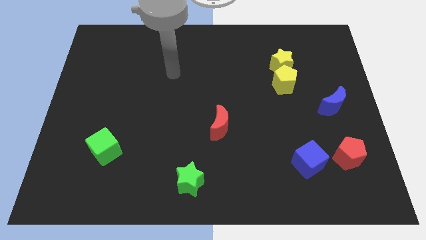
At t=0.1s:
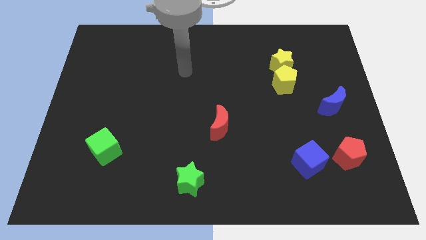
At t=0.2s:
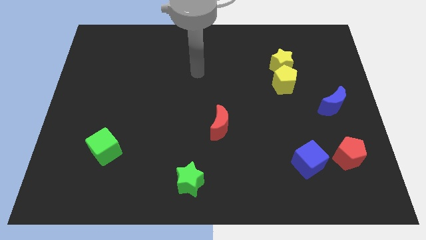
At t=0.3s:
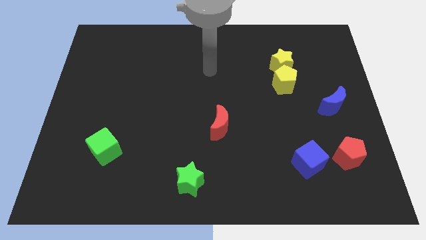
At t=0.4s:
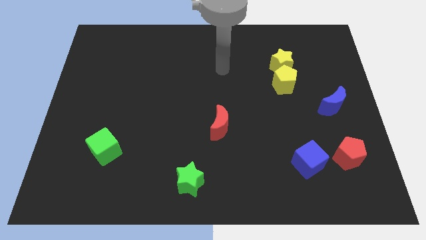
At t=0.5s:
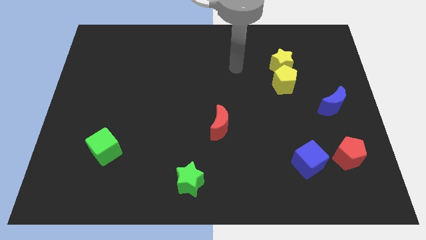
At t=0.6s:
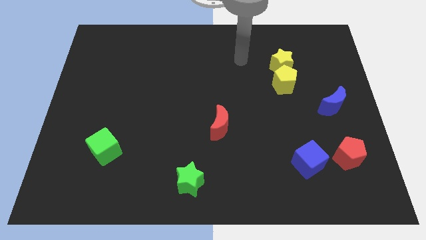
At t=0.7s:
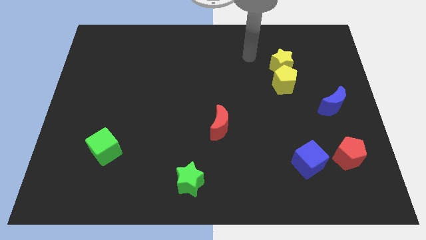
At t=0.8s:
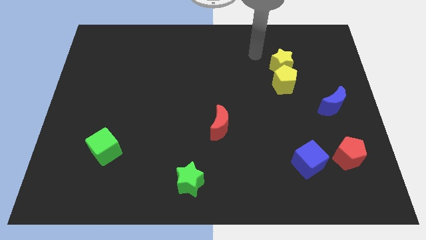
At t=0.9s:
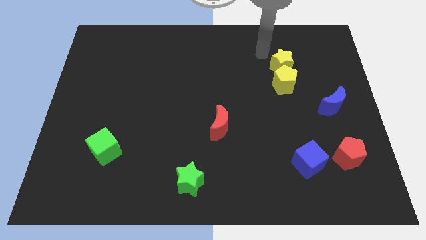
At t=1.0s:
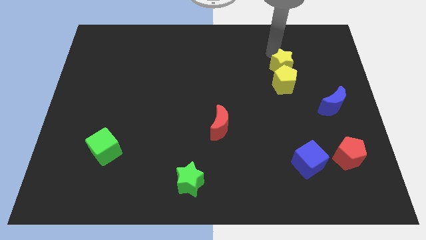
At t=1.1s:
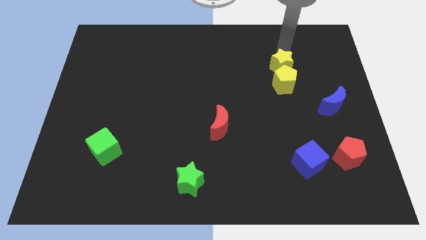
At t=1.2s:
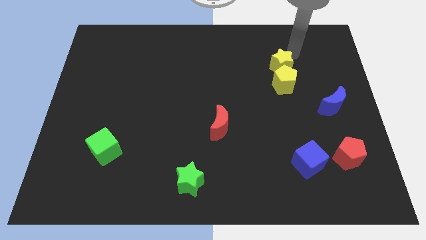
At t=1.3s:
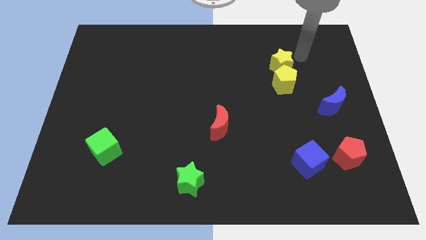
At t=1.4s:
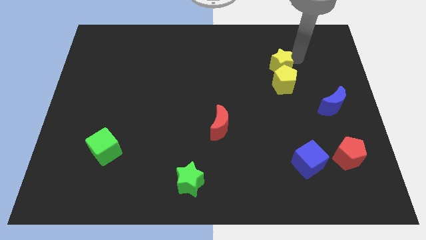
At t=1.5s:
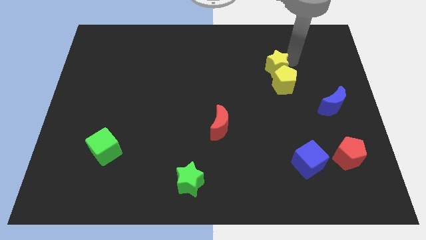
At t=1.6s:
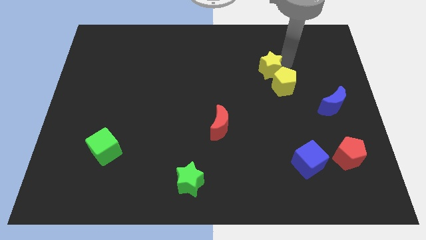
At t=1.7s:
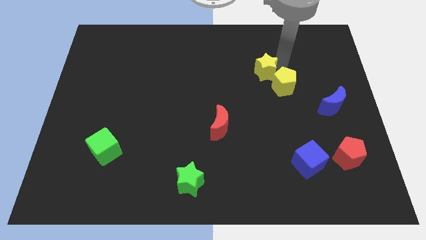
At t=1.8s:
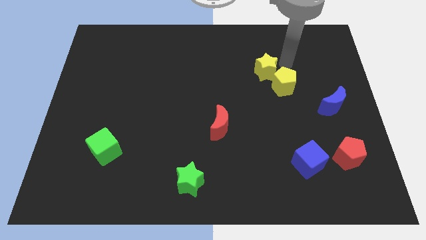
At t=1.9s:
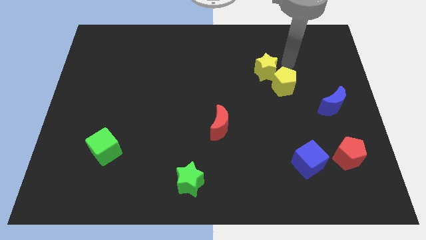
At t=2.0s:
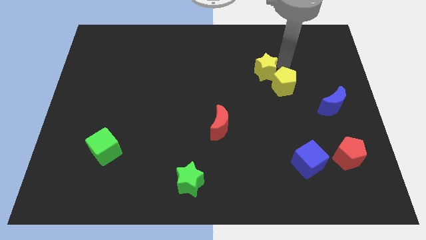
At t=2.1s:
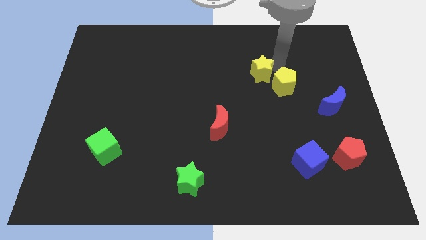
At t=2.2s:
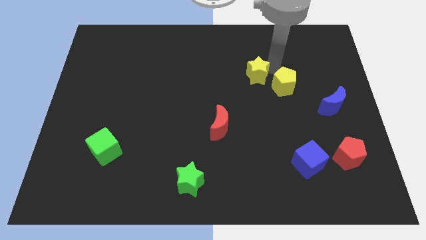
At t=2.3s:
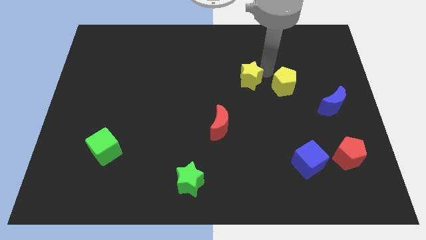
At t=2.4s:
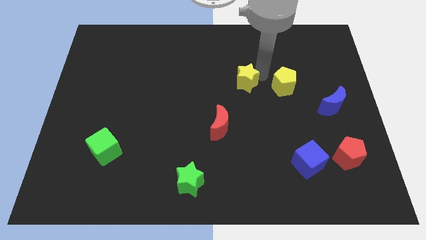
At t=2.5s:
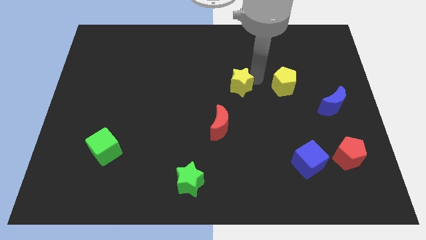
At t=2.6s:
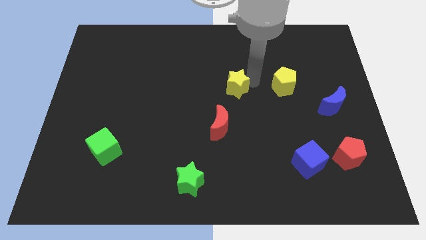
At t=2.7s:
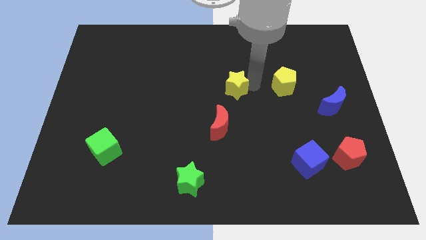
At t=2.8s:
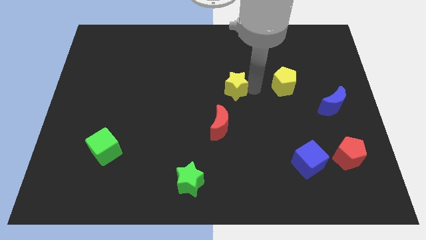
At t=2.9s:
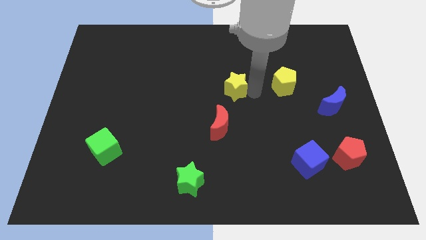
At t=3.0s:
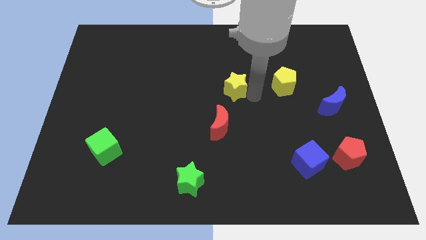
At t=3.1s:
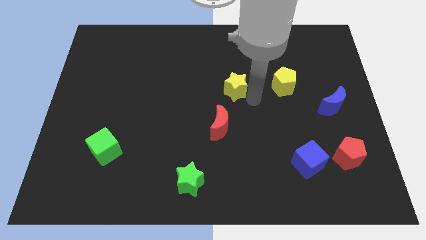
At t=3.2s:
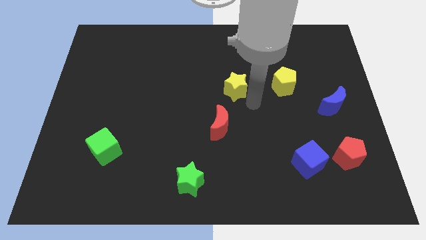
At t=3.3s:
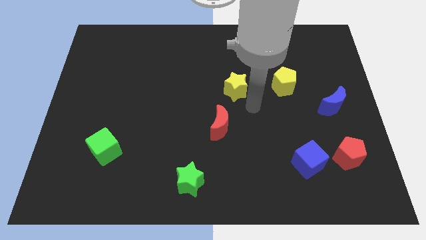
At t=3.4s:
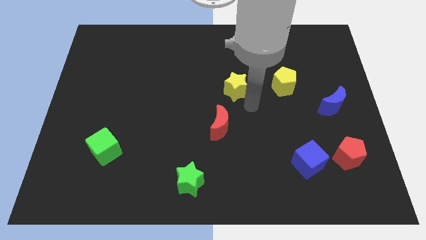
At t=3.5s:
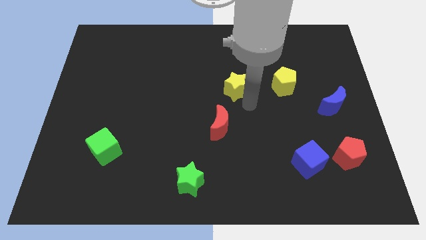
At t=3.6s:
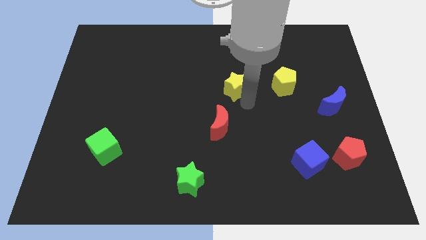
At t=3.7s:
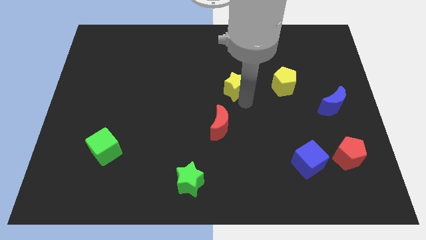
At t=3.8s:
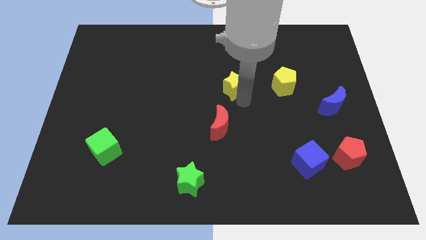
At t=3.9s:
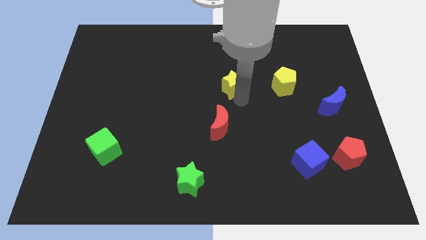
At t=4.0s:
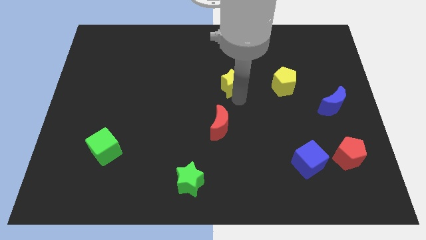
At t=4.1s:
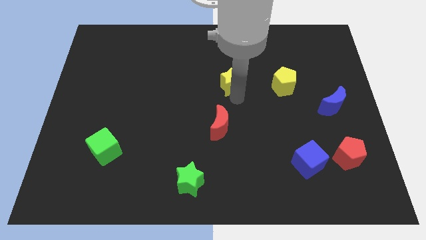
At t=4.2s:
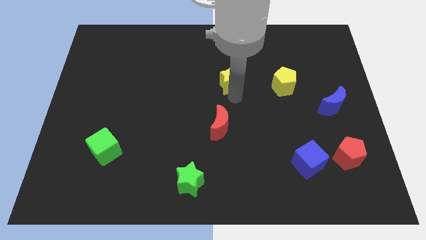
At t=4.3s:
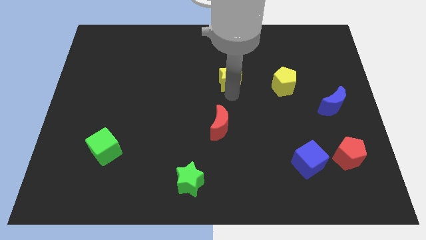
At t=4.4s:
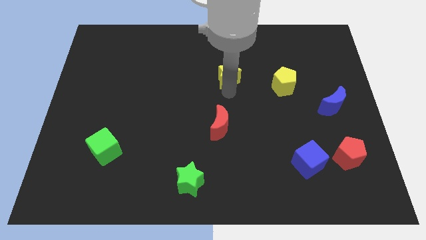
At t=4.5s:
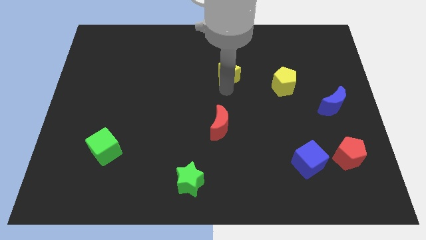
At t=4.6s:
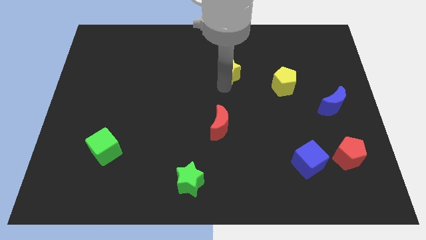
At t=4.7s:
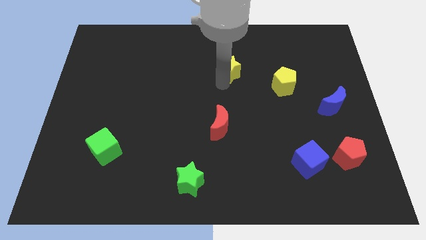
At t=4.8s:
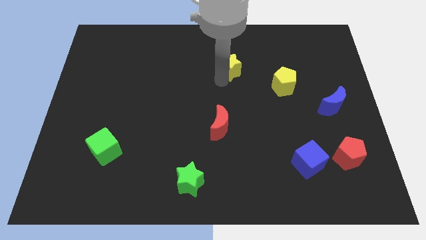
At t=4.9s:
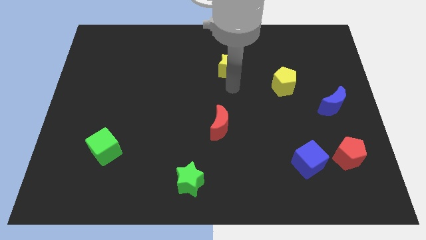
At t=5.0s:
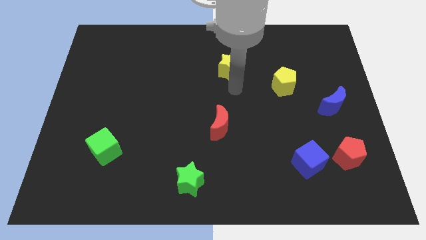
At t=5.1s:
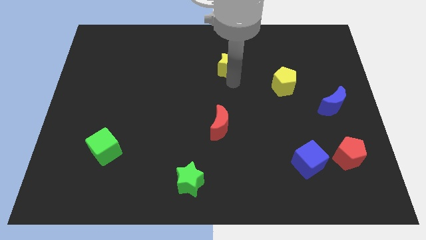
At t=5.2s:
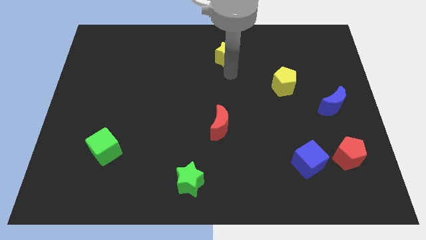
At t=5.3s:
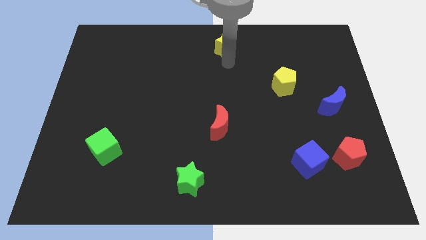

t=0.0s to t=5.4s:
move the yellow star to the towards your base

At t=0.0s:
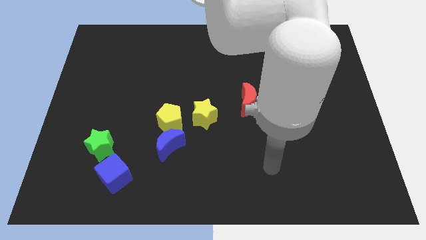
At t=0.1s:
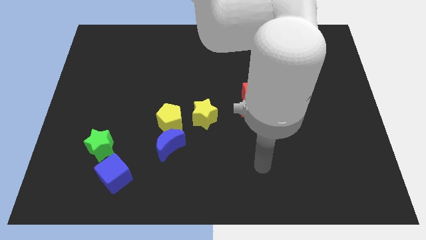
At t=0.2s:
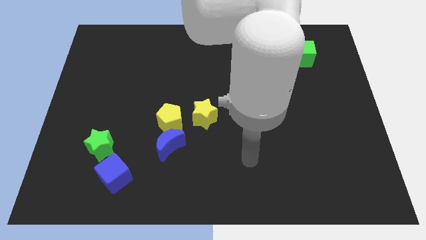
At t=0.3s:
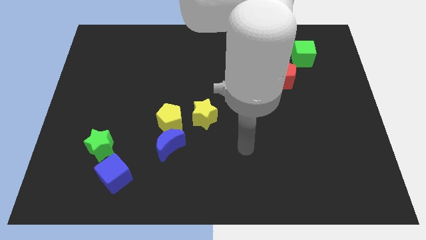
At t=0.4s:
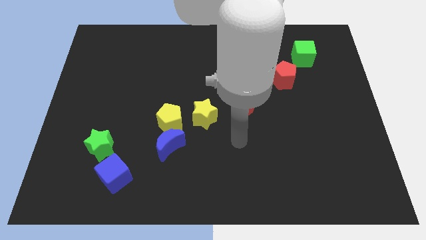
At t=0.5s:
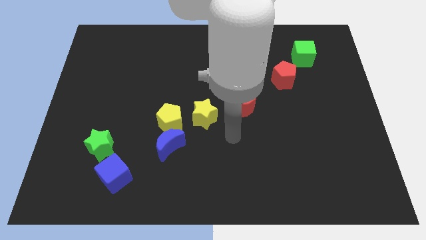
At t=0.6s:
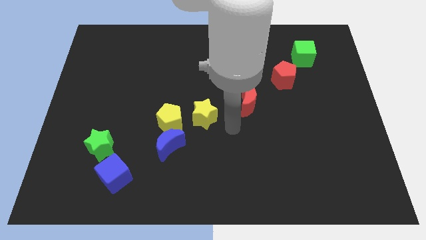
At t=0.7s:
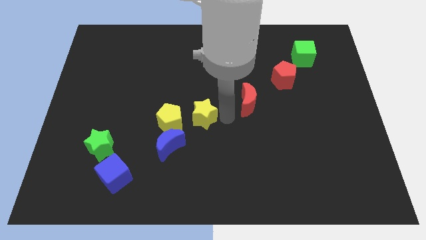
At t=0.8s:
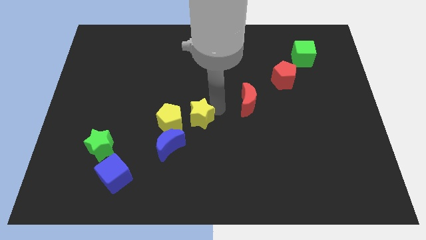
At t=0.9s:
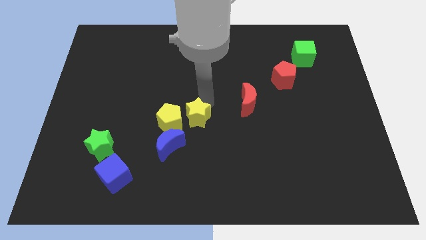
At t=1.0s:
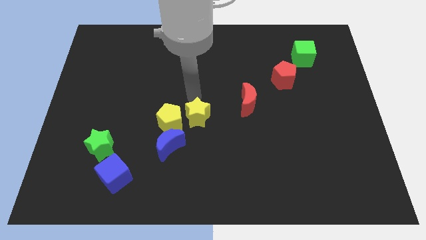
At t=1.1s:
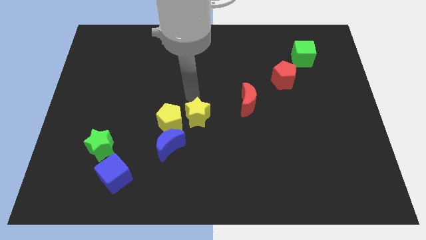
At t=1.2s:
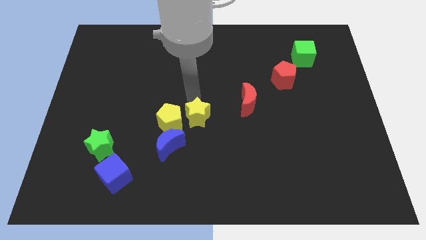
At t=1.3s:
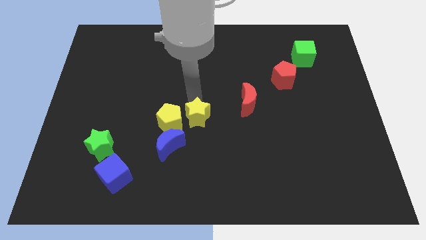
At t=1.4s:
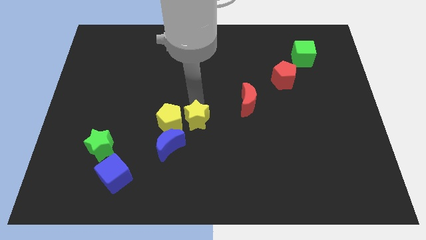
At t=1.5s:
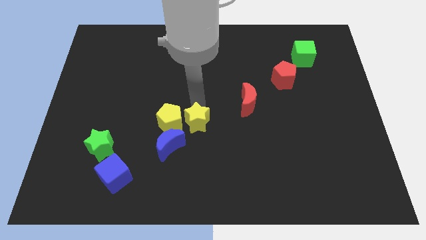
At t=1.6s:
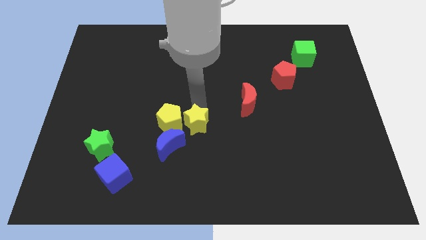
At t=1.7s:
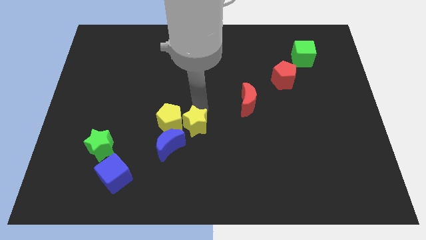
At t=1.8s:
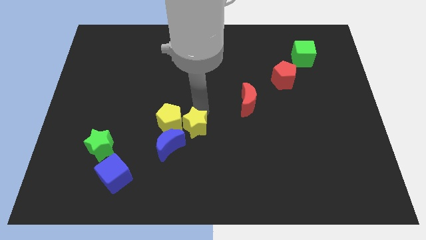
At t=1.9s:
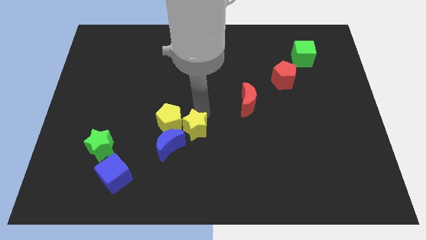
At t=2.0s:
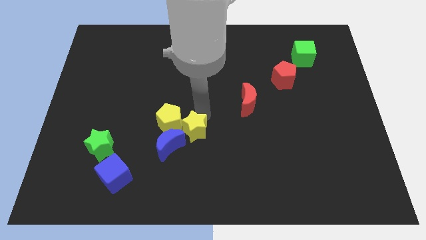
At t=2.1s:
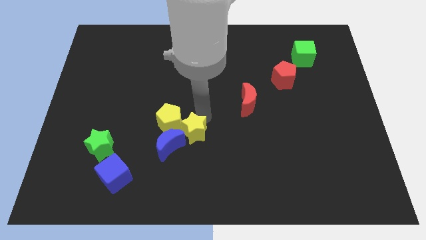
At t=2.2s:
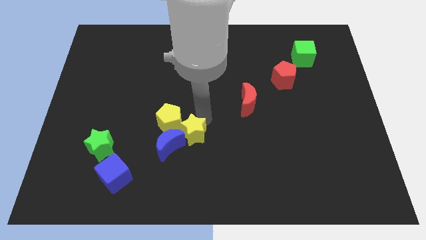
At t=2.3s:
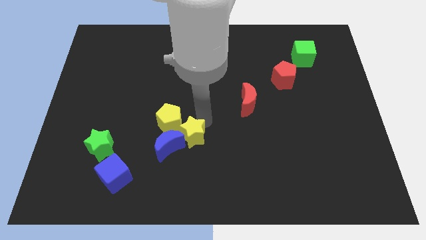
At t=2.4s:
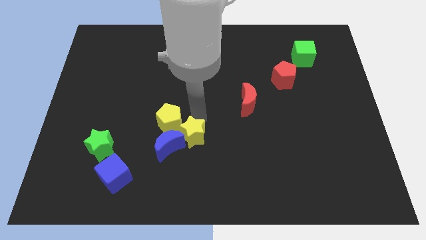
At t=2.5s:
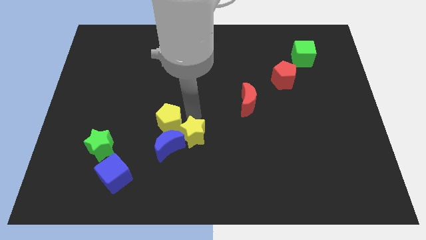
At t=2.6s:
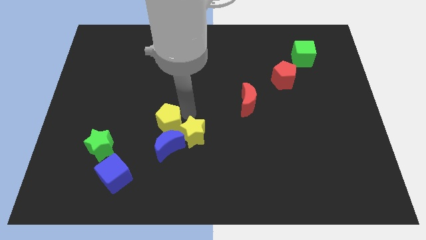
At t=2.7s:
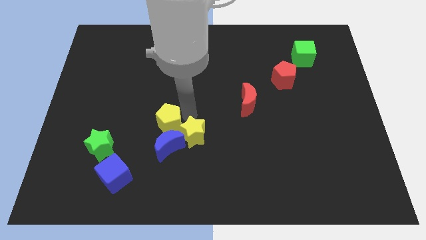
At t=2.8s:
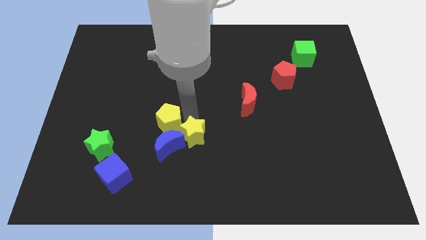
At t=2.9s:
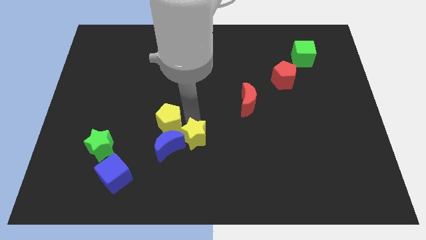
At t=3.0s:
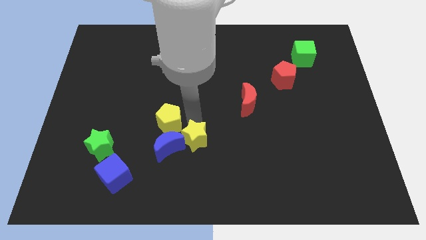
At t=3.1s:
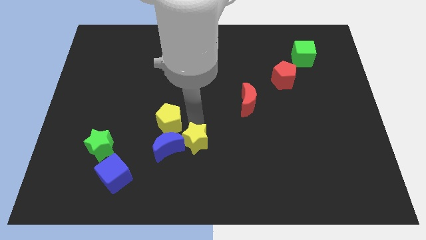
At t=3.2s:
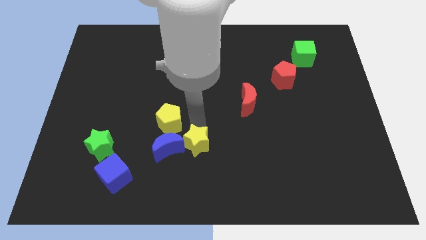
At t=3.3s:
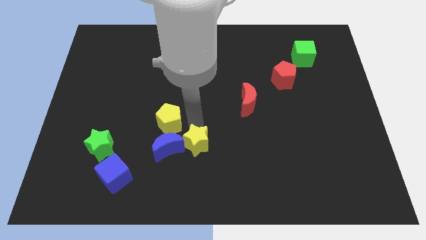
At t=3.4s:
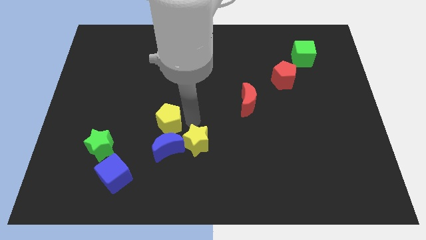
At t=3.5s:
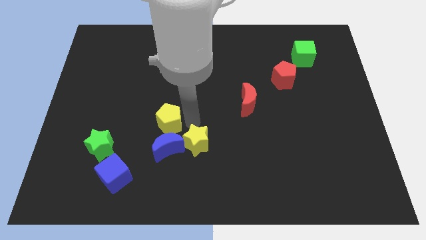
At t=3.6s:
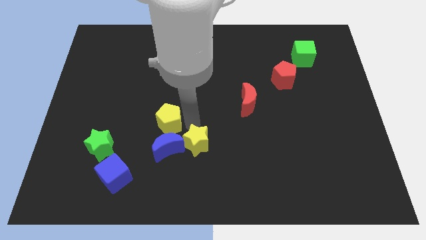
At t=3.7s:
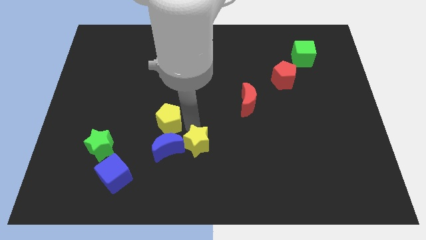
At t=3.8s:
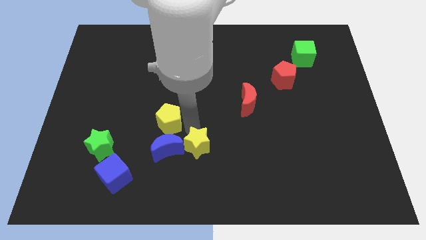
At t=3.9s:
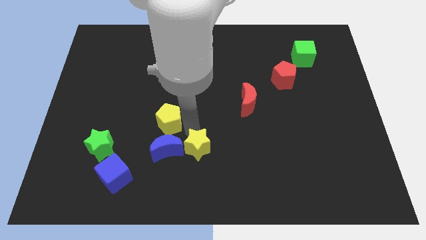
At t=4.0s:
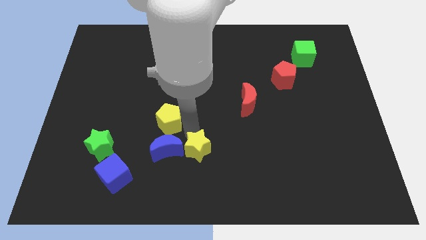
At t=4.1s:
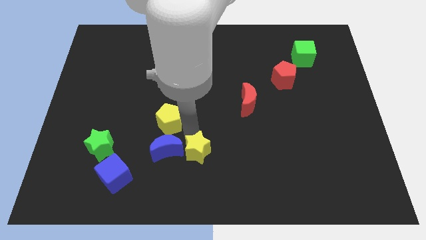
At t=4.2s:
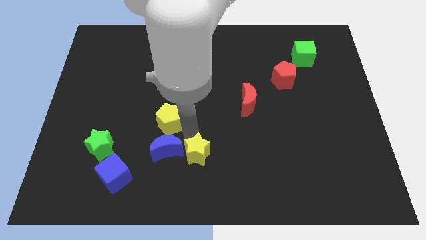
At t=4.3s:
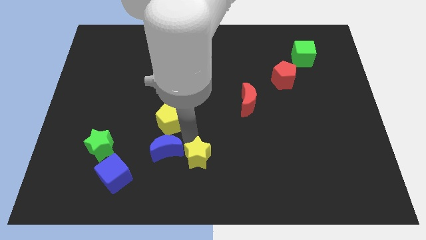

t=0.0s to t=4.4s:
put the yellow star to the bottom side
